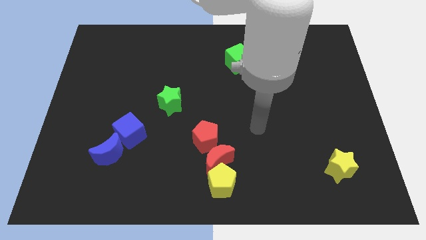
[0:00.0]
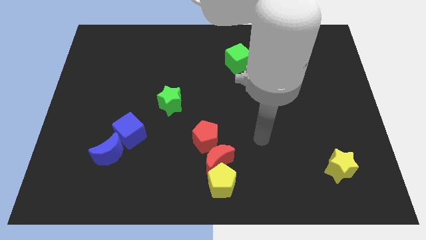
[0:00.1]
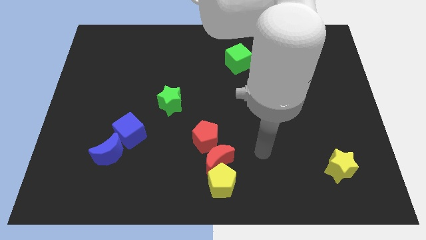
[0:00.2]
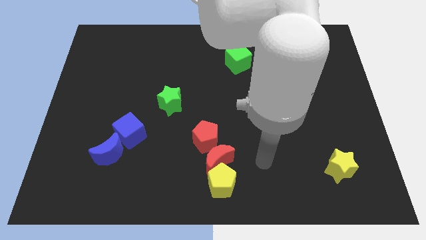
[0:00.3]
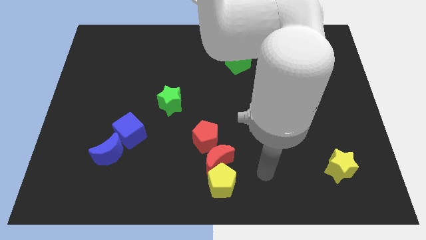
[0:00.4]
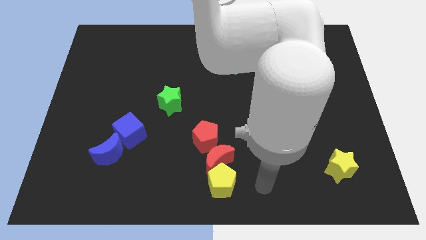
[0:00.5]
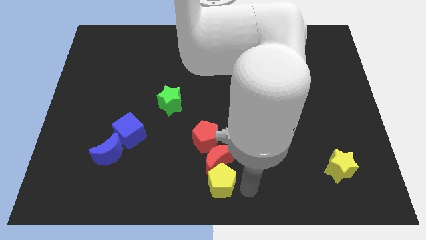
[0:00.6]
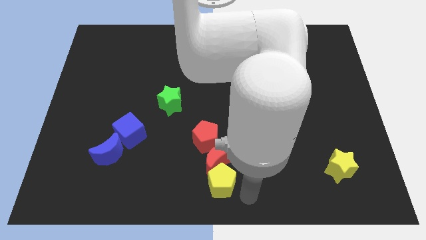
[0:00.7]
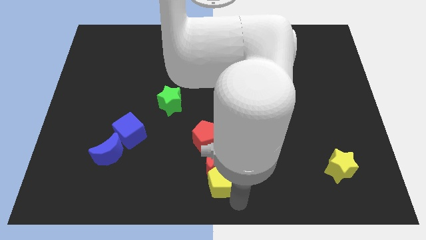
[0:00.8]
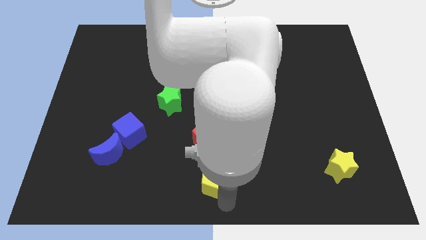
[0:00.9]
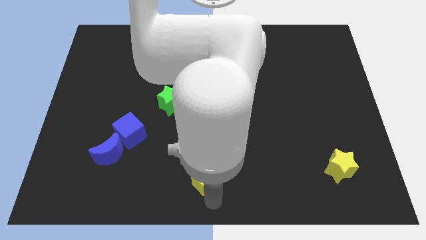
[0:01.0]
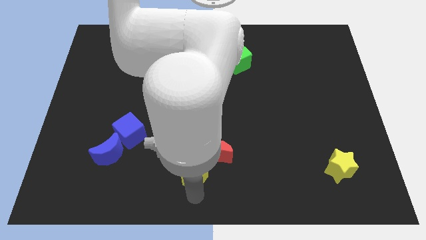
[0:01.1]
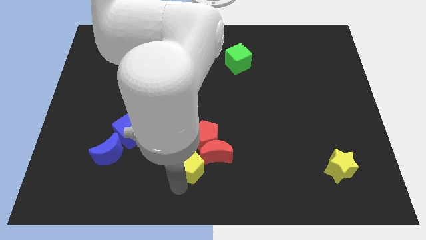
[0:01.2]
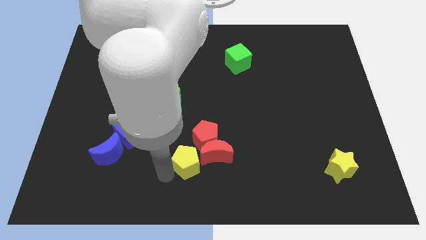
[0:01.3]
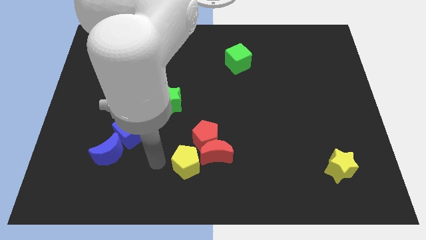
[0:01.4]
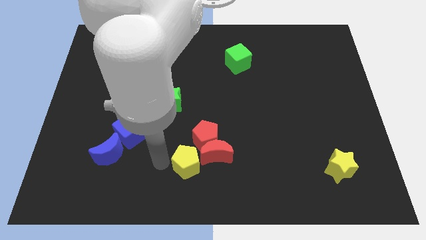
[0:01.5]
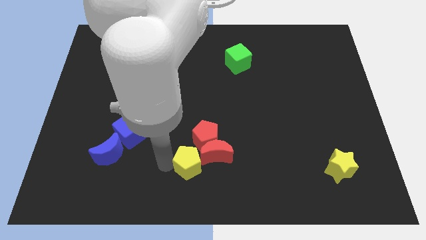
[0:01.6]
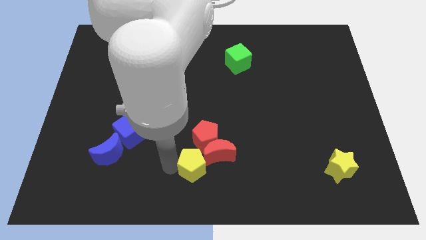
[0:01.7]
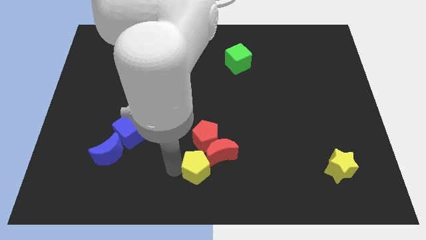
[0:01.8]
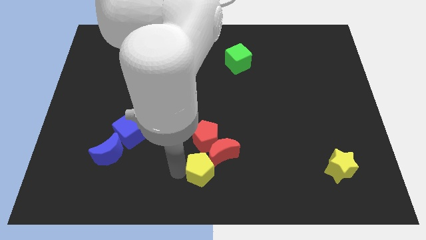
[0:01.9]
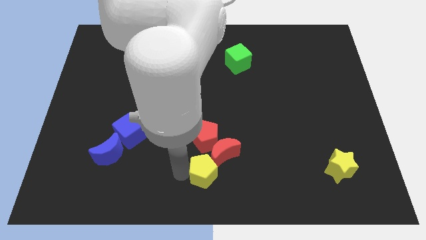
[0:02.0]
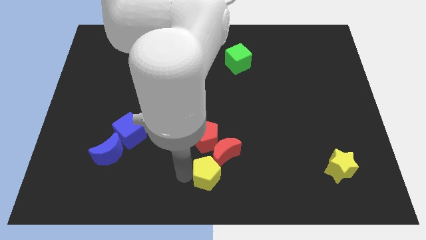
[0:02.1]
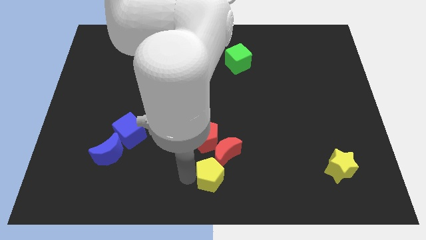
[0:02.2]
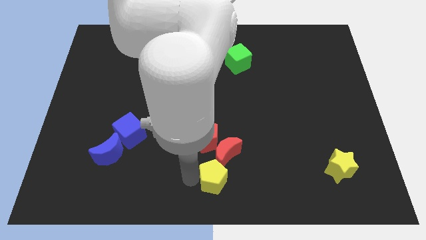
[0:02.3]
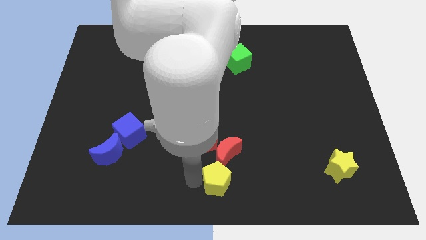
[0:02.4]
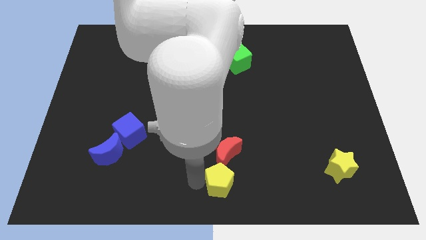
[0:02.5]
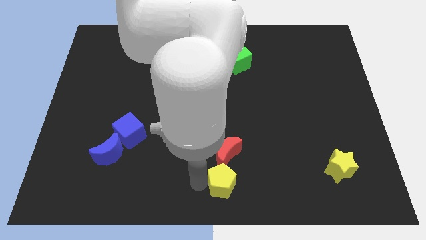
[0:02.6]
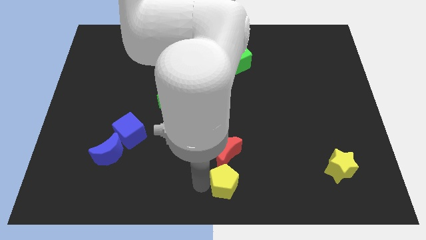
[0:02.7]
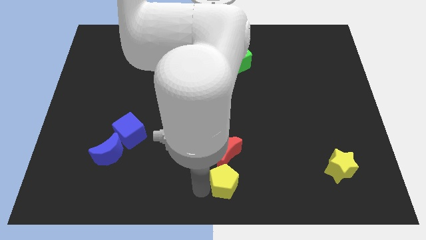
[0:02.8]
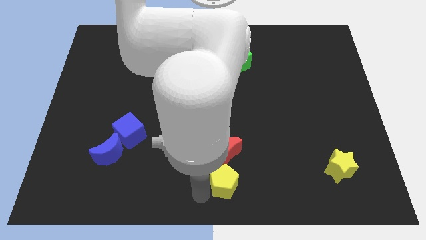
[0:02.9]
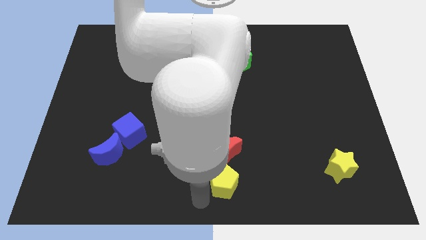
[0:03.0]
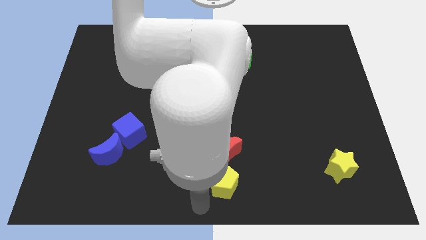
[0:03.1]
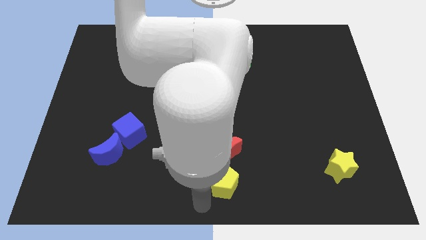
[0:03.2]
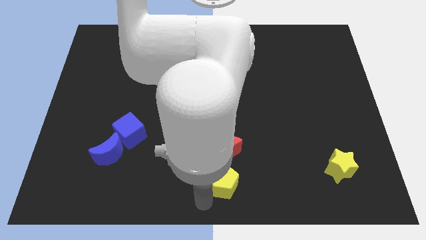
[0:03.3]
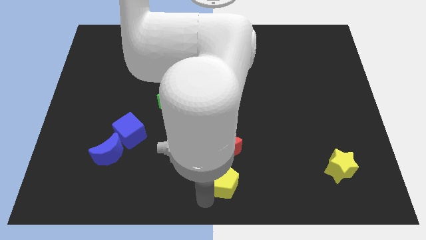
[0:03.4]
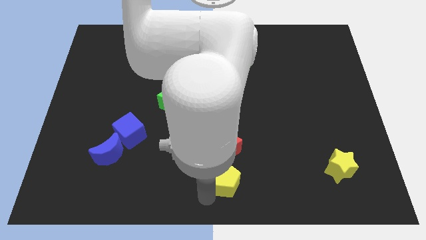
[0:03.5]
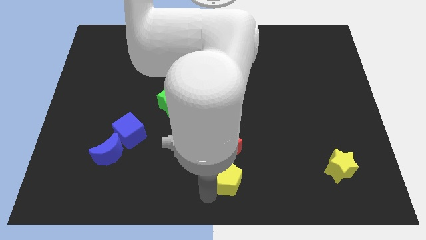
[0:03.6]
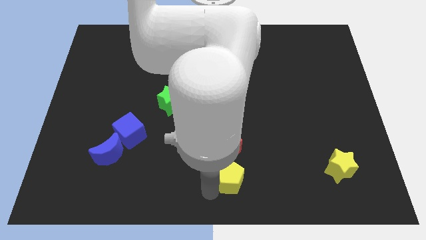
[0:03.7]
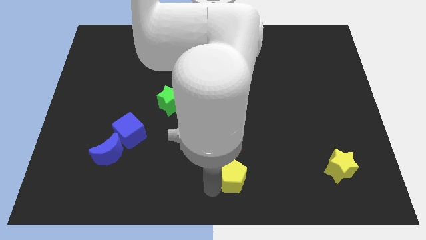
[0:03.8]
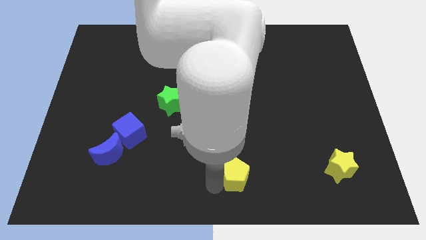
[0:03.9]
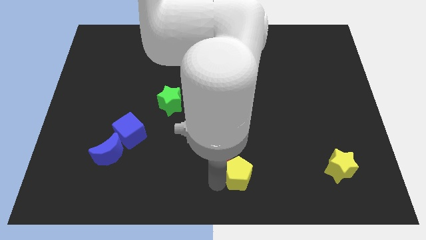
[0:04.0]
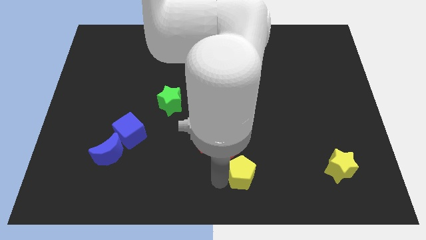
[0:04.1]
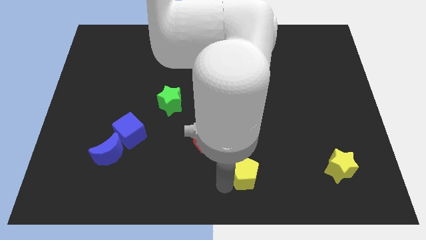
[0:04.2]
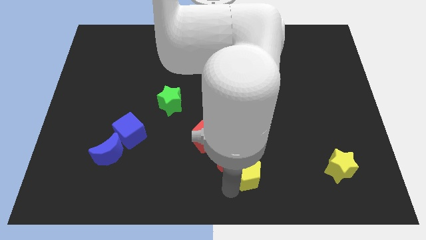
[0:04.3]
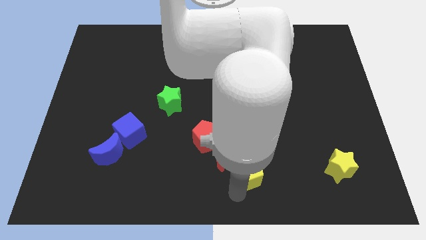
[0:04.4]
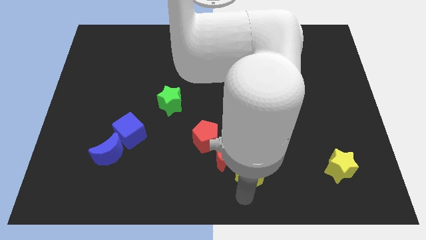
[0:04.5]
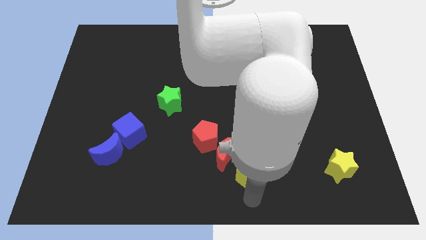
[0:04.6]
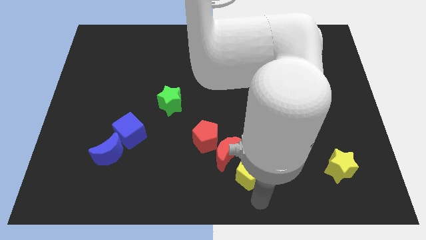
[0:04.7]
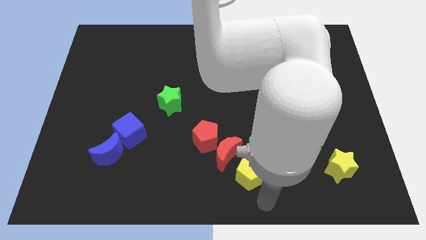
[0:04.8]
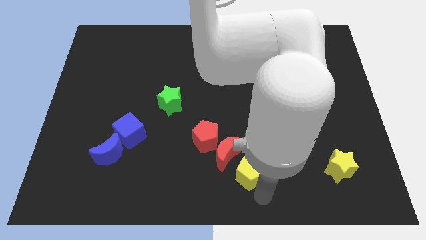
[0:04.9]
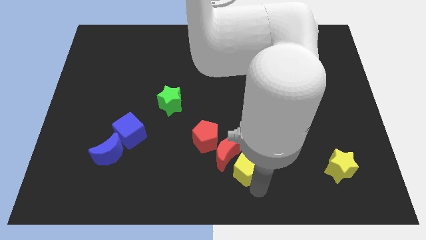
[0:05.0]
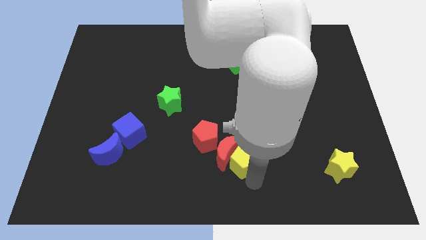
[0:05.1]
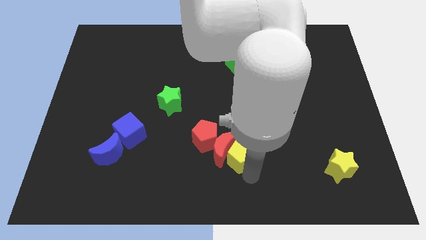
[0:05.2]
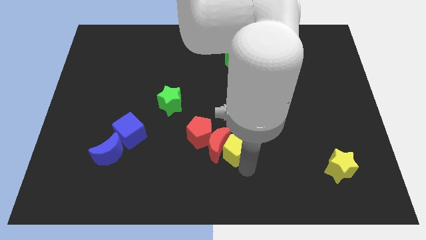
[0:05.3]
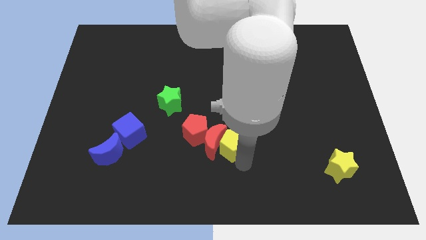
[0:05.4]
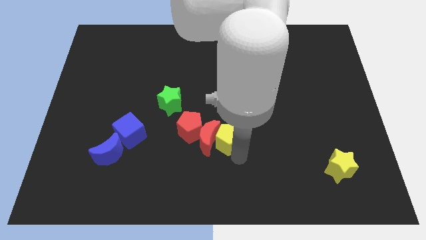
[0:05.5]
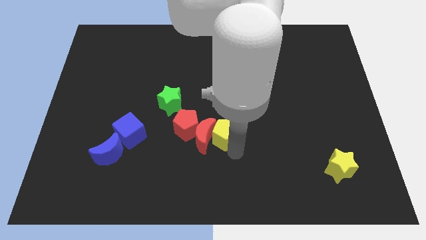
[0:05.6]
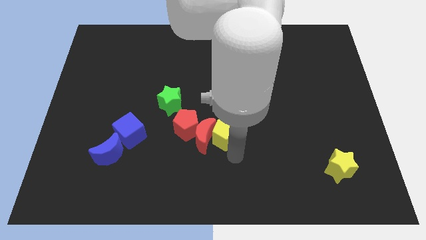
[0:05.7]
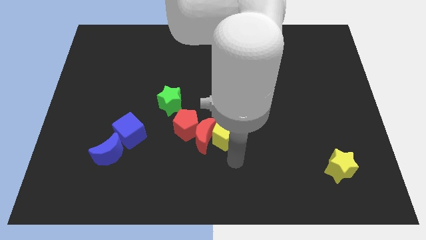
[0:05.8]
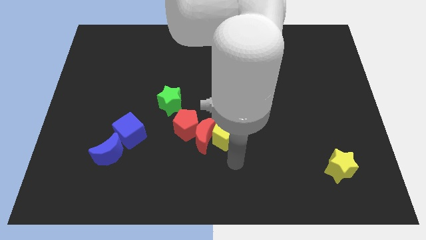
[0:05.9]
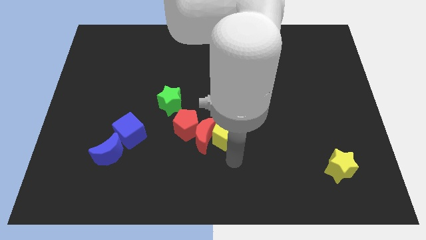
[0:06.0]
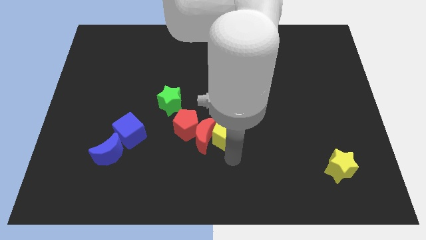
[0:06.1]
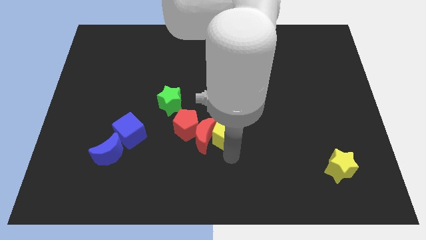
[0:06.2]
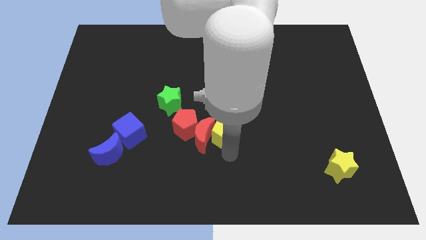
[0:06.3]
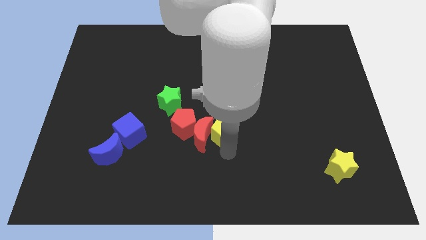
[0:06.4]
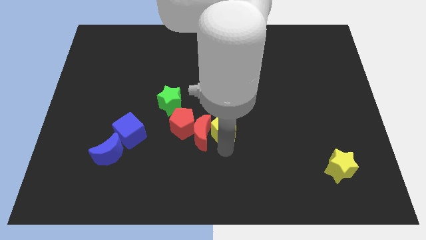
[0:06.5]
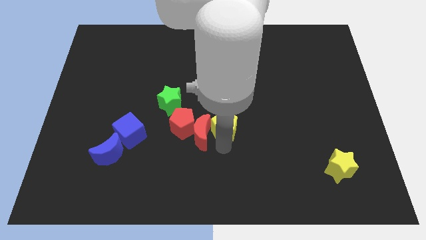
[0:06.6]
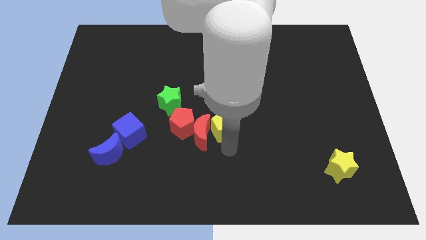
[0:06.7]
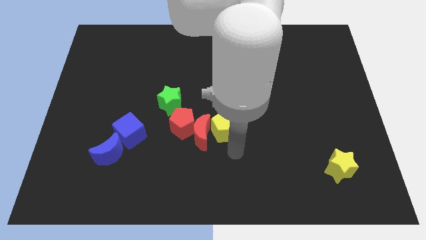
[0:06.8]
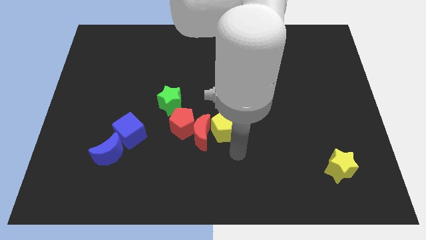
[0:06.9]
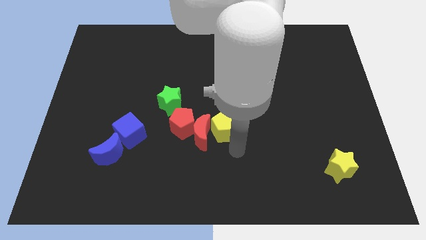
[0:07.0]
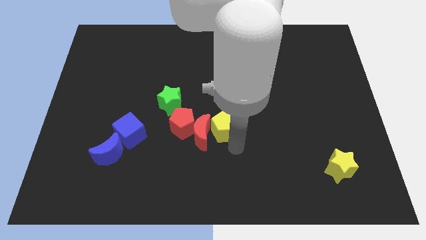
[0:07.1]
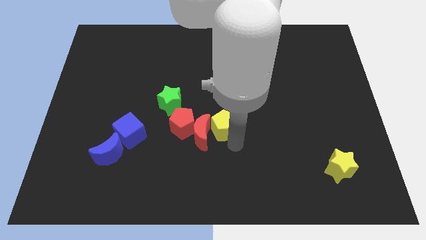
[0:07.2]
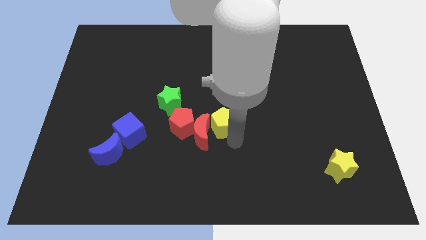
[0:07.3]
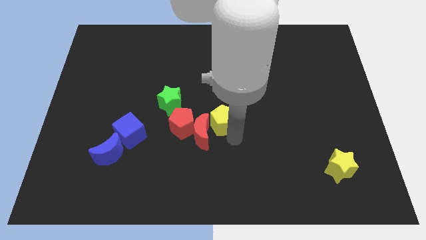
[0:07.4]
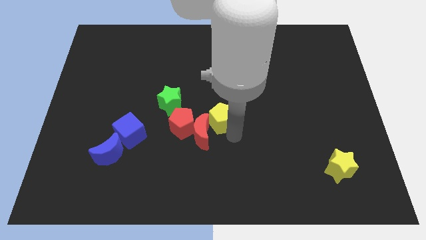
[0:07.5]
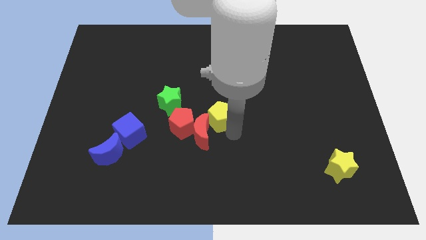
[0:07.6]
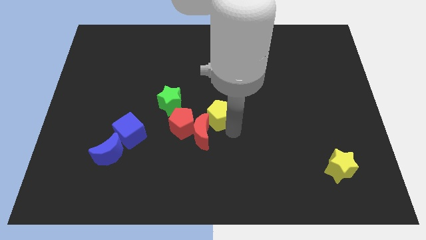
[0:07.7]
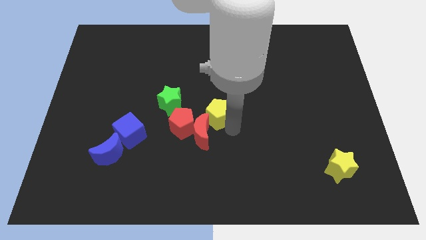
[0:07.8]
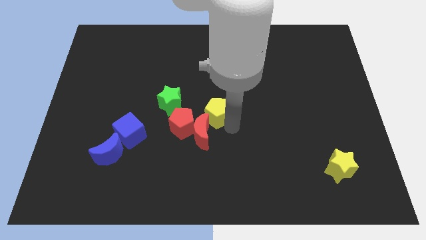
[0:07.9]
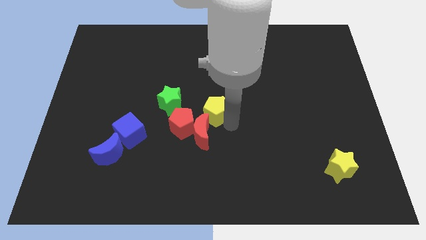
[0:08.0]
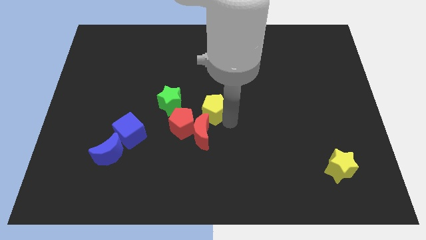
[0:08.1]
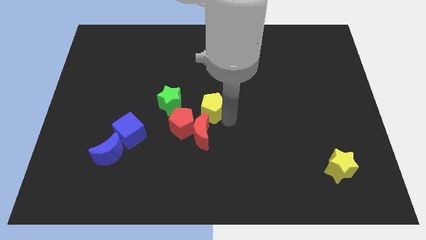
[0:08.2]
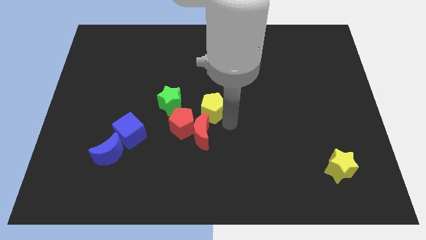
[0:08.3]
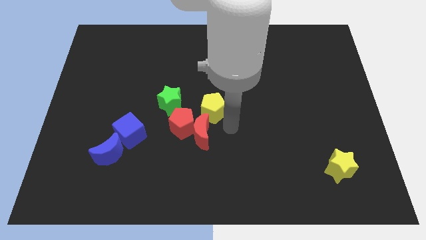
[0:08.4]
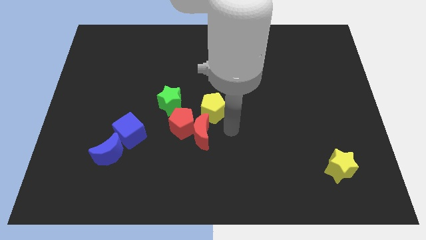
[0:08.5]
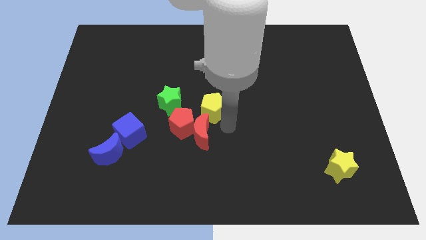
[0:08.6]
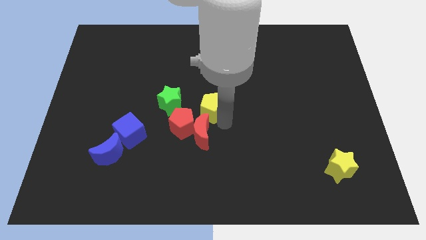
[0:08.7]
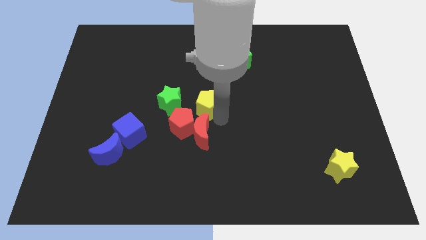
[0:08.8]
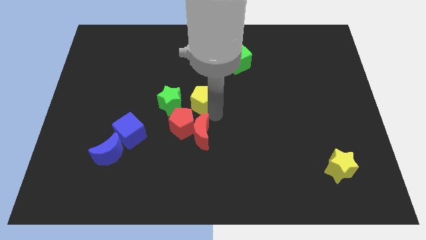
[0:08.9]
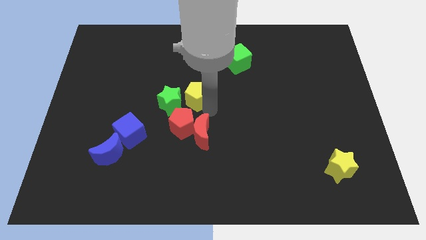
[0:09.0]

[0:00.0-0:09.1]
put the yellow pentagon diagonally up and to the right of the green star
